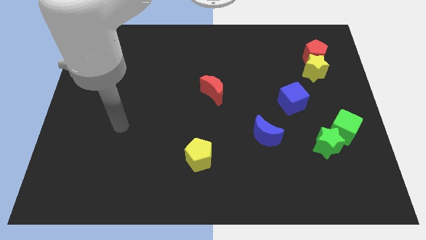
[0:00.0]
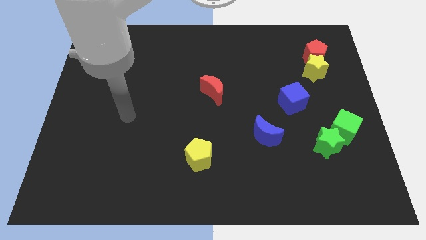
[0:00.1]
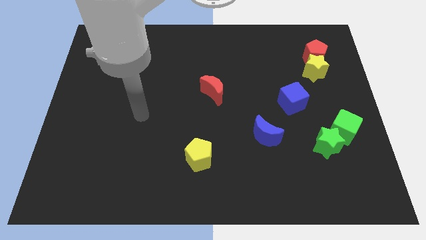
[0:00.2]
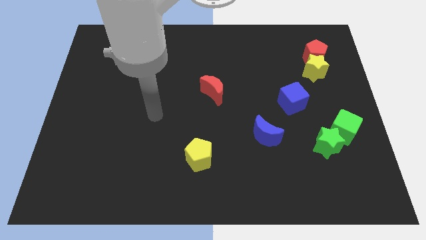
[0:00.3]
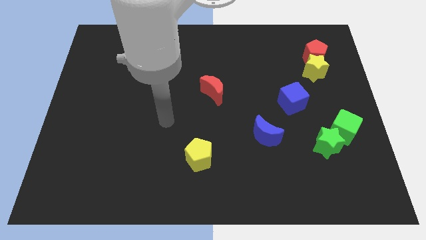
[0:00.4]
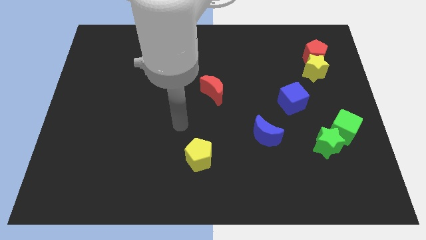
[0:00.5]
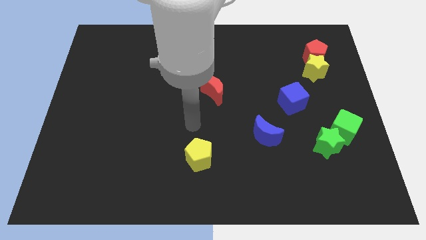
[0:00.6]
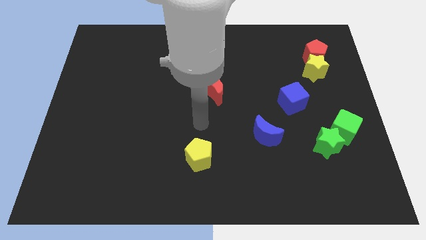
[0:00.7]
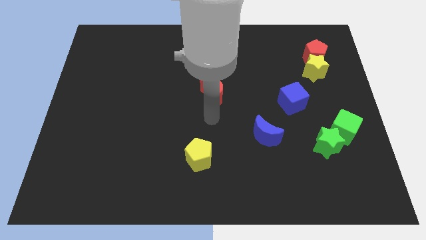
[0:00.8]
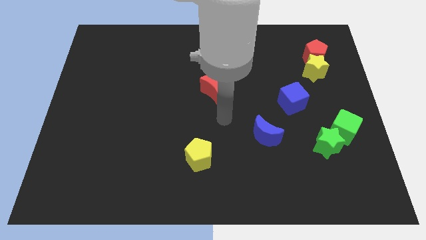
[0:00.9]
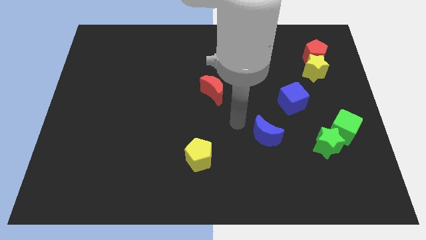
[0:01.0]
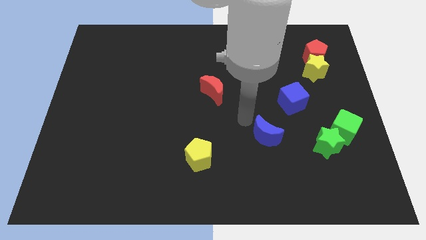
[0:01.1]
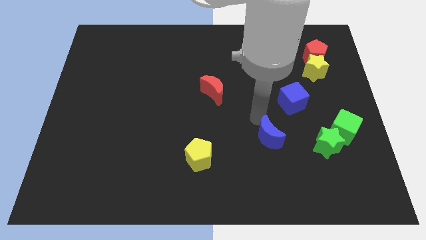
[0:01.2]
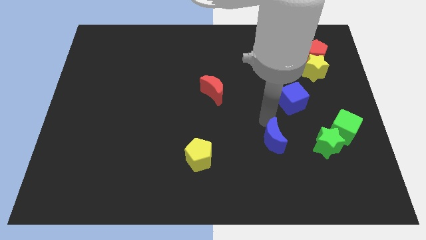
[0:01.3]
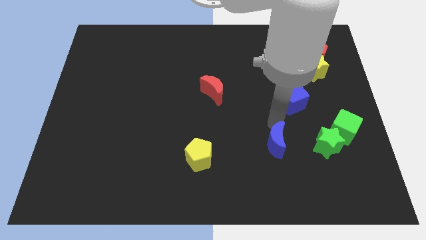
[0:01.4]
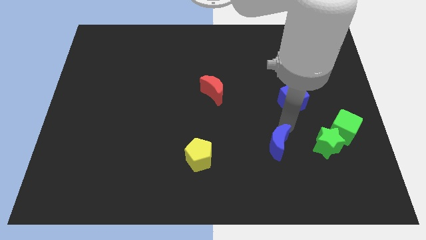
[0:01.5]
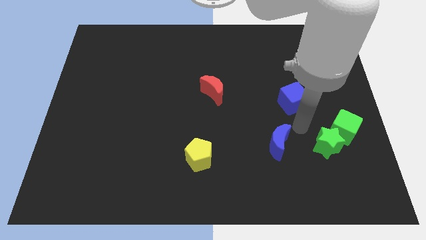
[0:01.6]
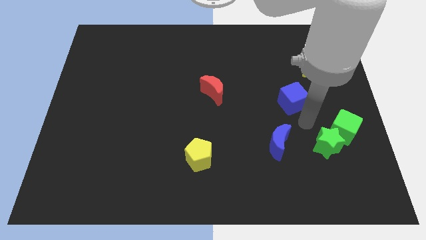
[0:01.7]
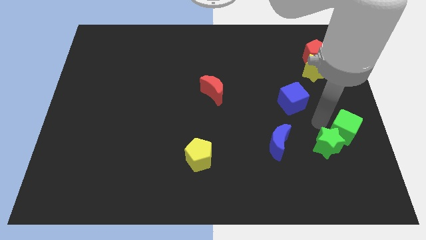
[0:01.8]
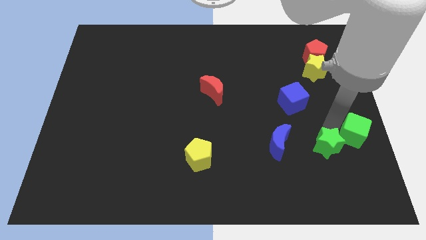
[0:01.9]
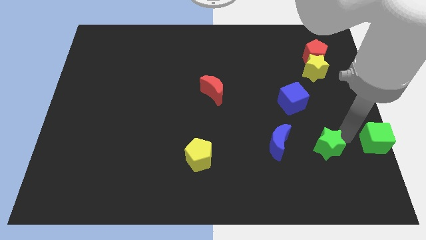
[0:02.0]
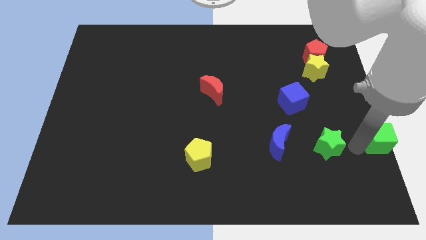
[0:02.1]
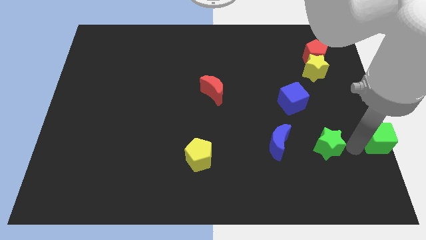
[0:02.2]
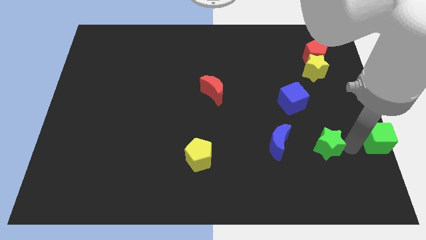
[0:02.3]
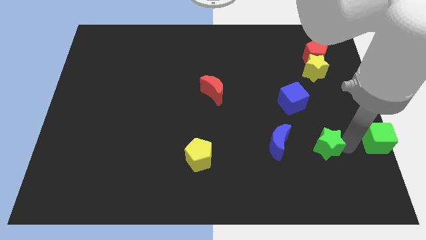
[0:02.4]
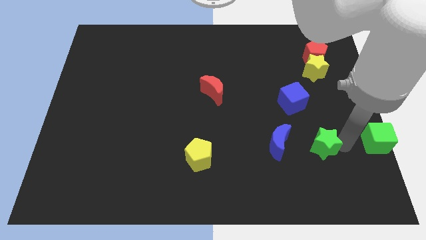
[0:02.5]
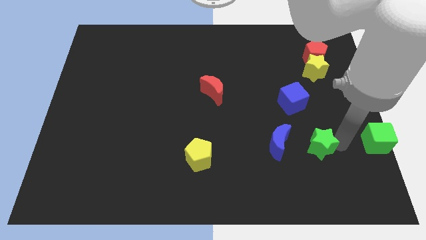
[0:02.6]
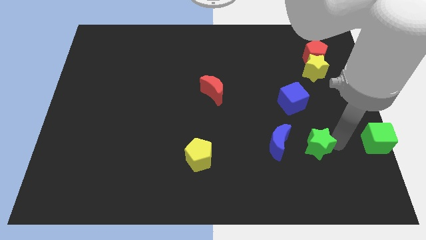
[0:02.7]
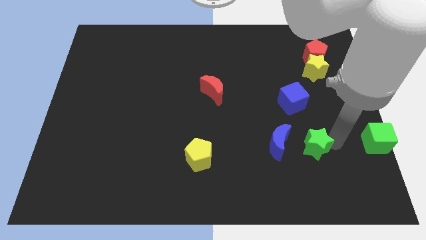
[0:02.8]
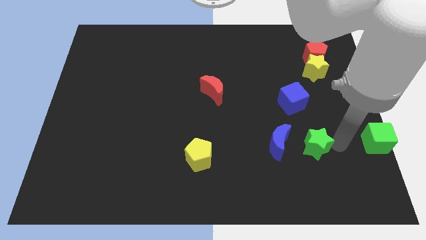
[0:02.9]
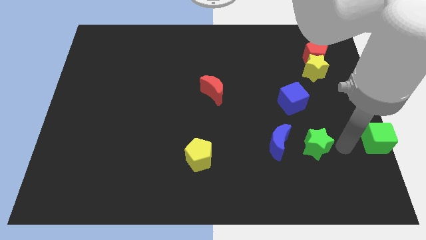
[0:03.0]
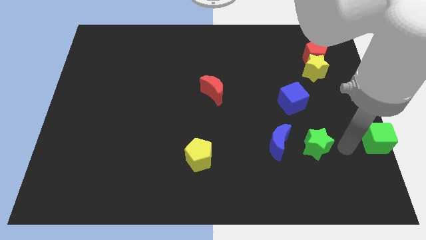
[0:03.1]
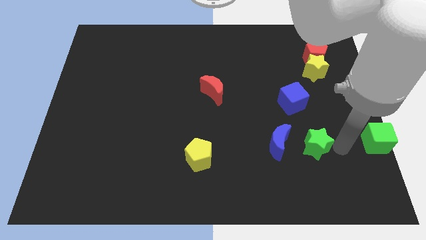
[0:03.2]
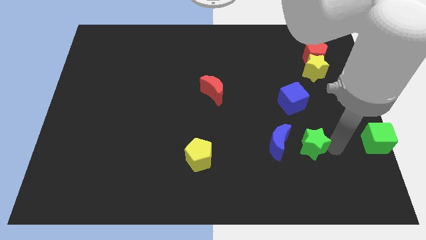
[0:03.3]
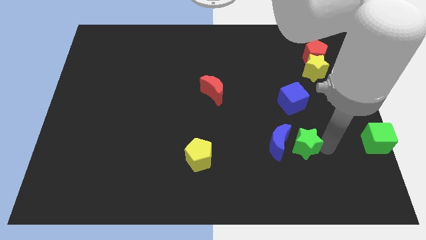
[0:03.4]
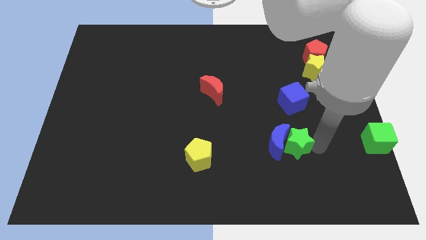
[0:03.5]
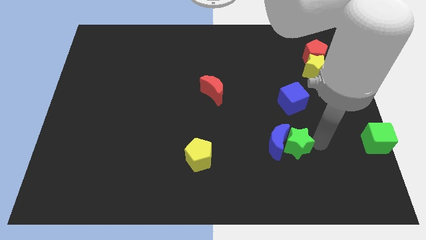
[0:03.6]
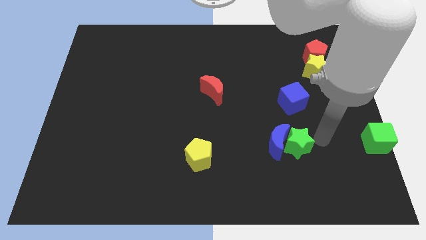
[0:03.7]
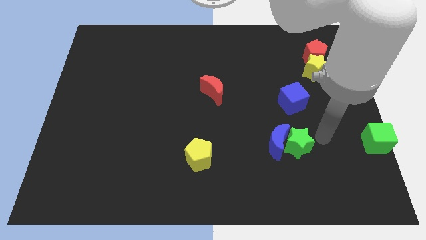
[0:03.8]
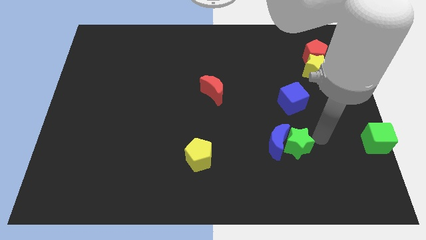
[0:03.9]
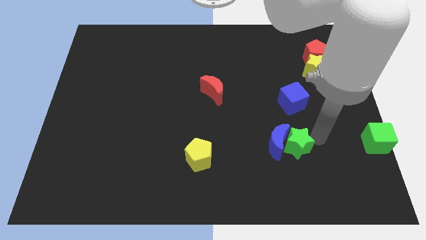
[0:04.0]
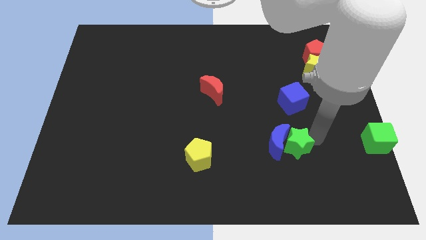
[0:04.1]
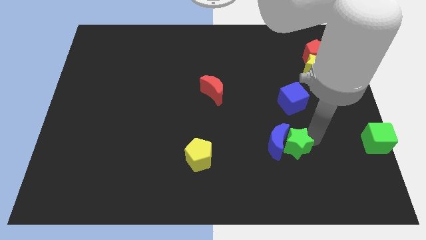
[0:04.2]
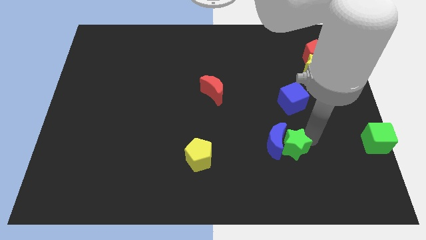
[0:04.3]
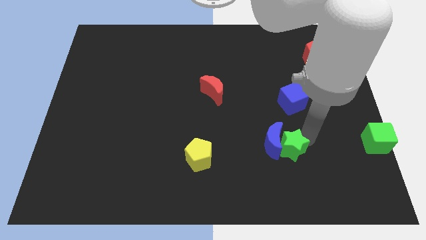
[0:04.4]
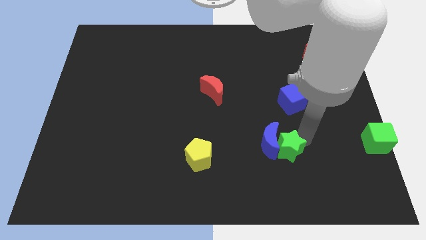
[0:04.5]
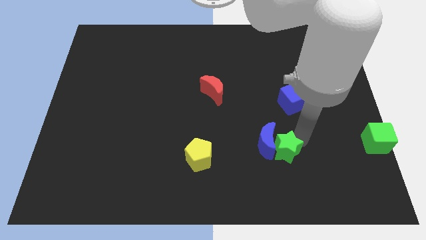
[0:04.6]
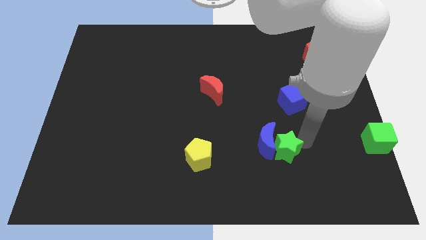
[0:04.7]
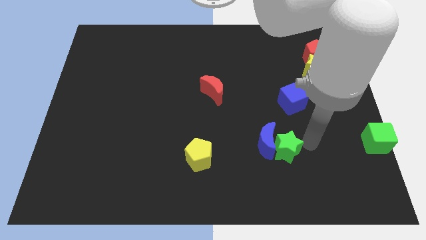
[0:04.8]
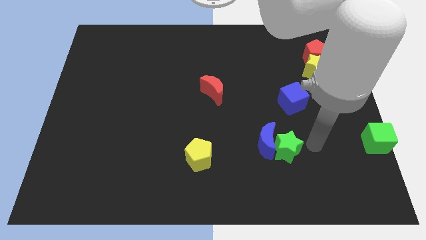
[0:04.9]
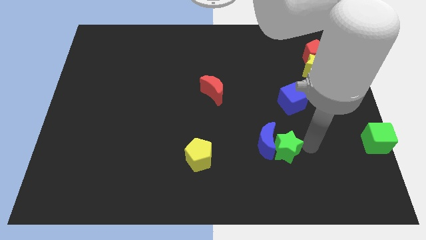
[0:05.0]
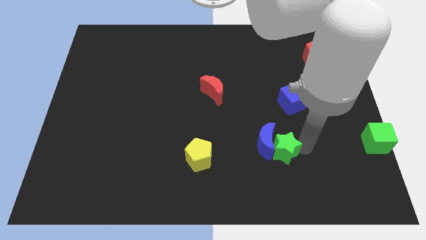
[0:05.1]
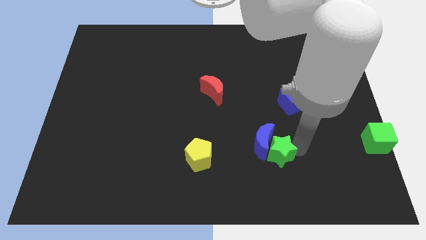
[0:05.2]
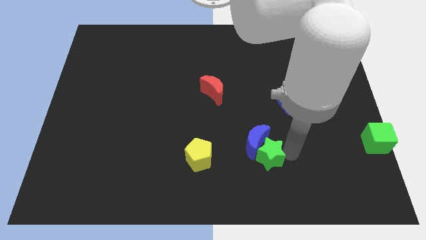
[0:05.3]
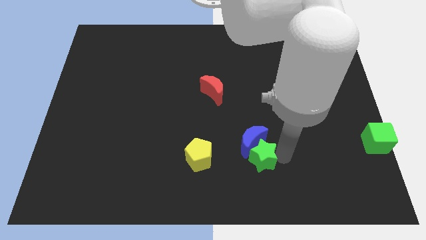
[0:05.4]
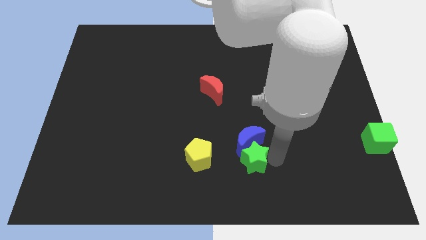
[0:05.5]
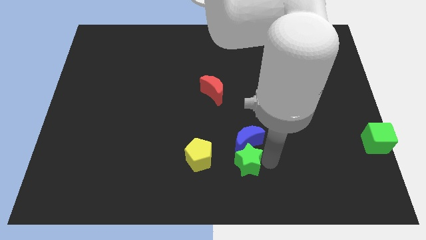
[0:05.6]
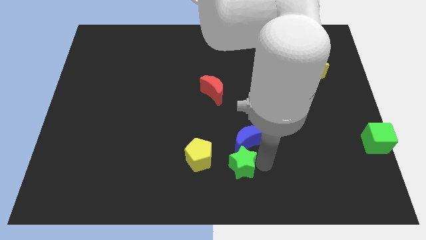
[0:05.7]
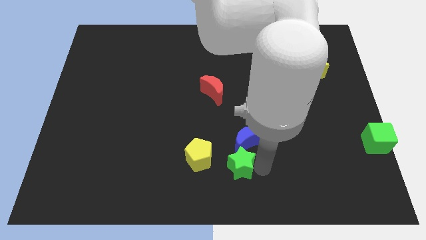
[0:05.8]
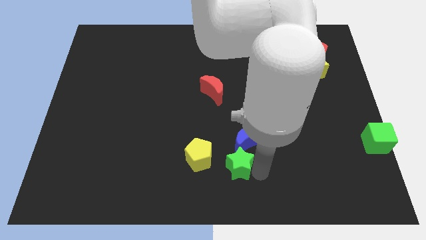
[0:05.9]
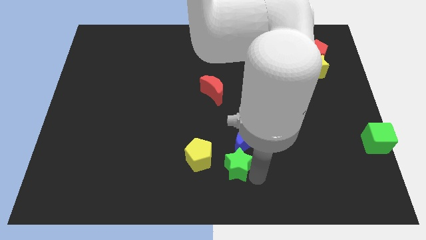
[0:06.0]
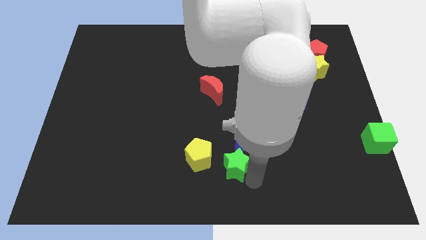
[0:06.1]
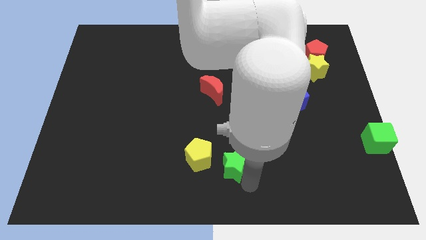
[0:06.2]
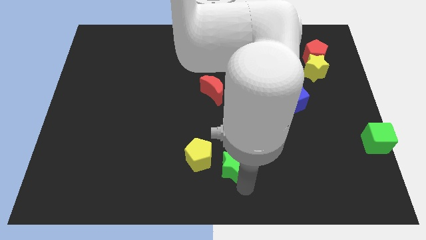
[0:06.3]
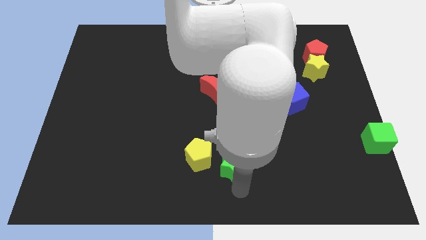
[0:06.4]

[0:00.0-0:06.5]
move the green star to the left

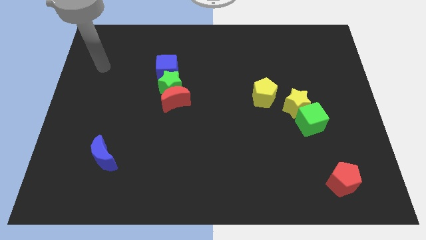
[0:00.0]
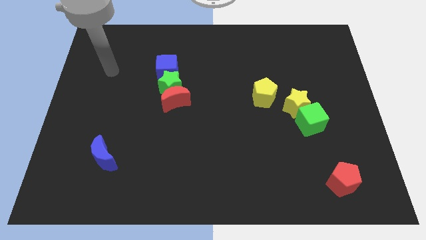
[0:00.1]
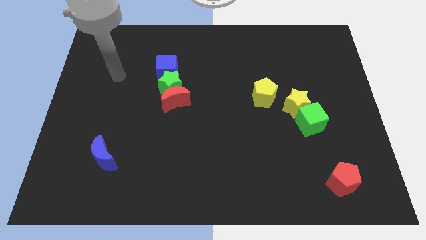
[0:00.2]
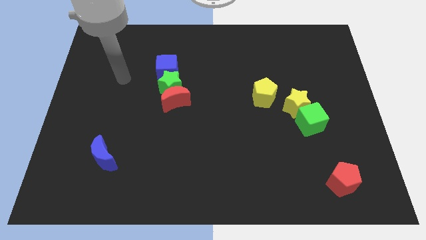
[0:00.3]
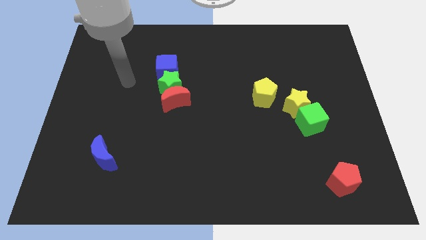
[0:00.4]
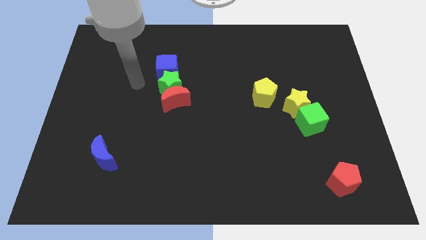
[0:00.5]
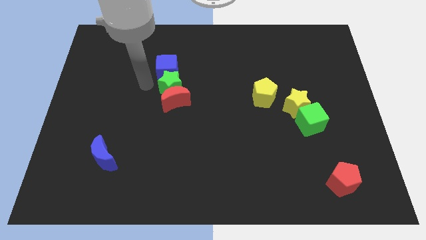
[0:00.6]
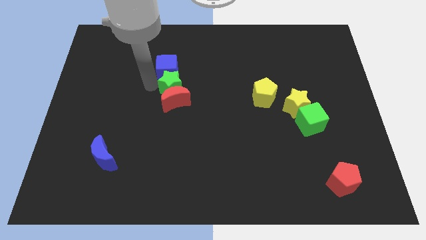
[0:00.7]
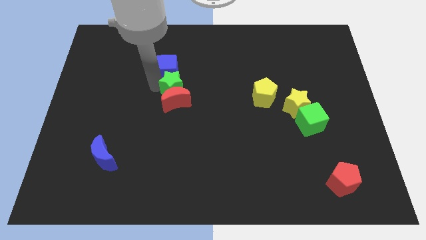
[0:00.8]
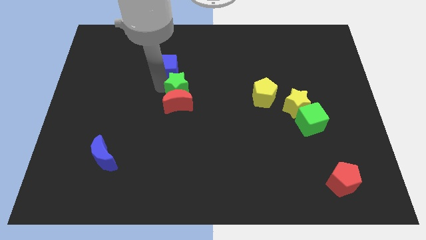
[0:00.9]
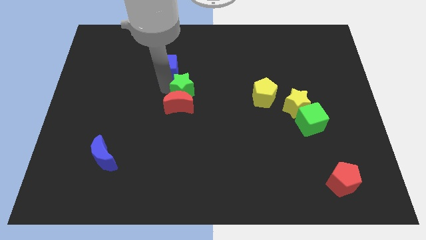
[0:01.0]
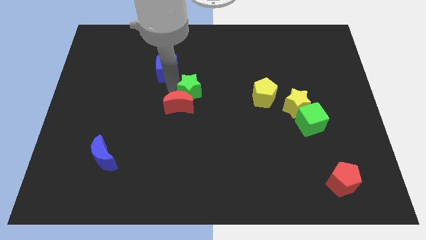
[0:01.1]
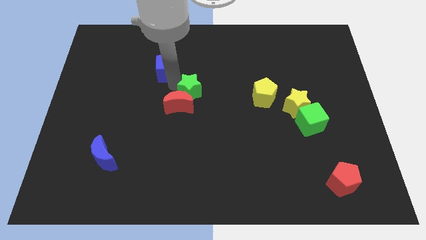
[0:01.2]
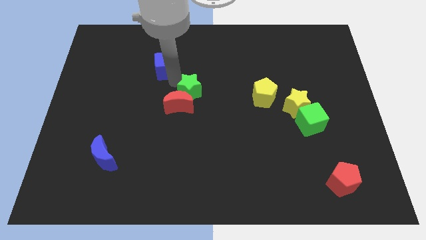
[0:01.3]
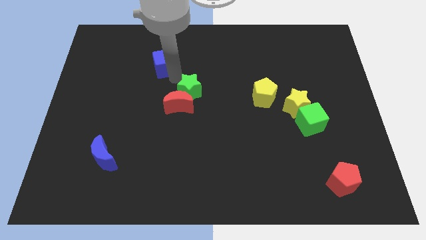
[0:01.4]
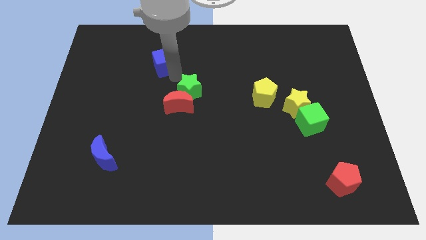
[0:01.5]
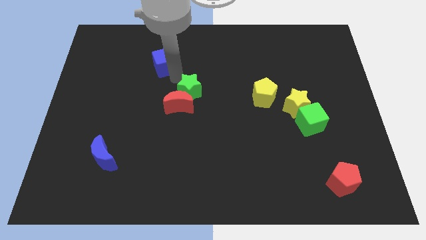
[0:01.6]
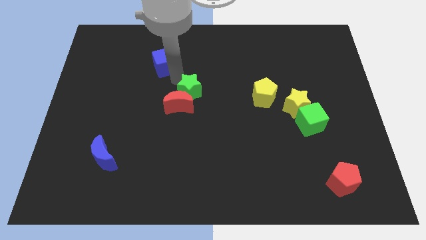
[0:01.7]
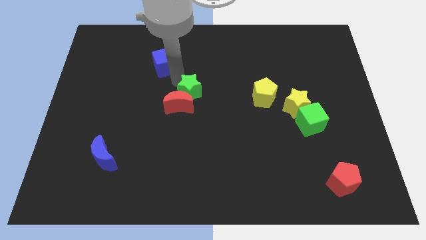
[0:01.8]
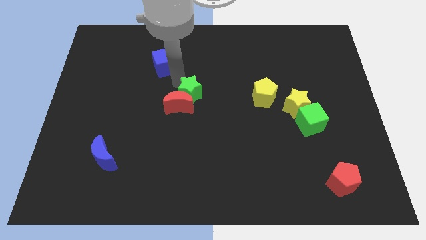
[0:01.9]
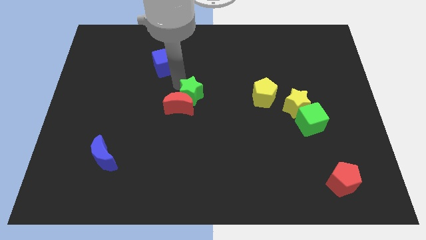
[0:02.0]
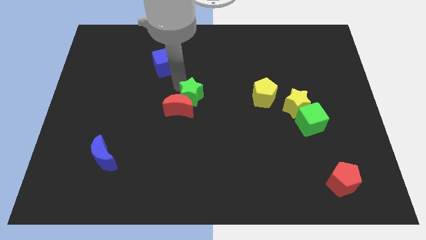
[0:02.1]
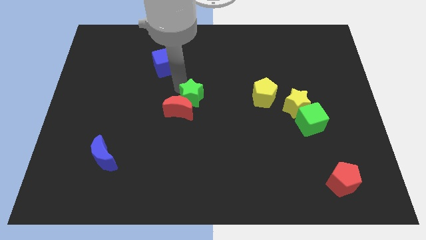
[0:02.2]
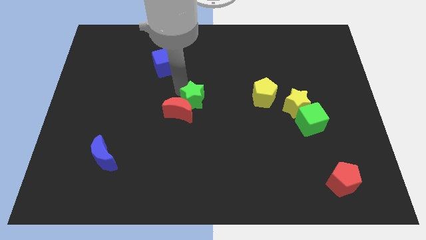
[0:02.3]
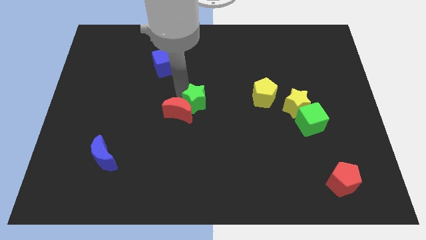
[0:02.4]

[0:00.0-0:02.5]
slide the green star a bit down and right
